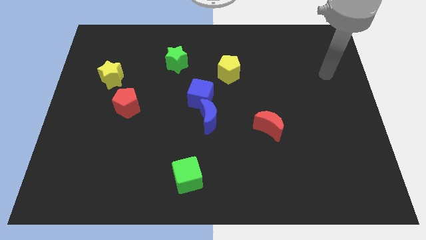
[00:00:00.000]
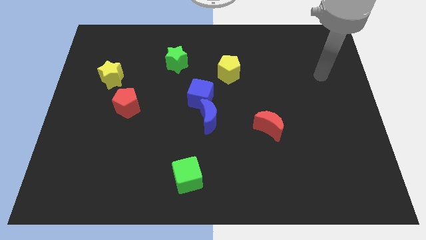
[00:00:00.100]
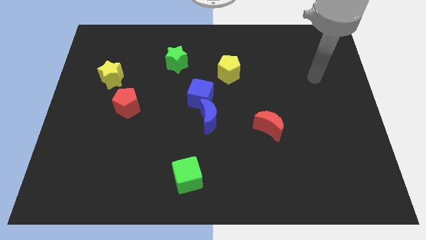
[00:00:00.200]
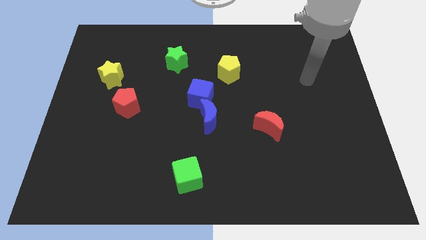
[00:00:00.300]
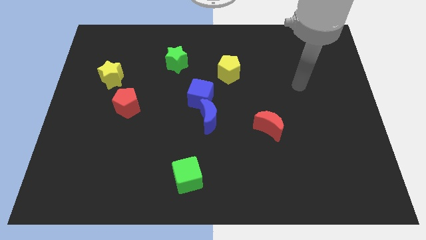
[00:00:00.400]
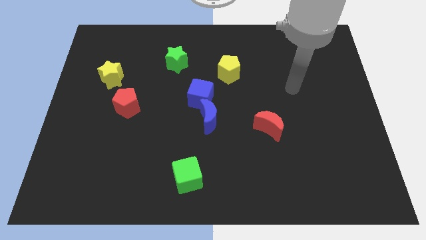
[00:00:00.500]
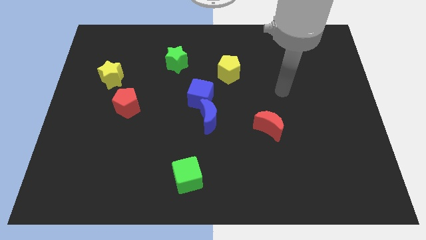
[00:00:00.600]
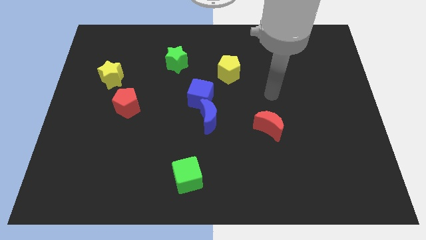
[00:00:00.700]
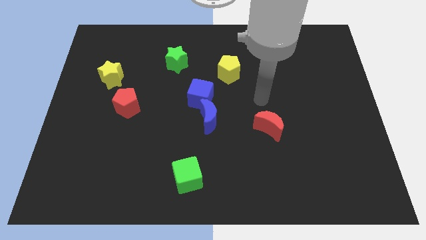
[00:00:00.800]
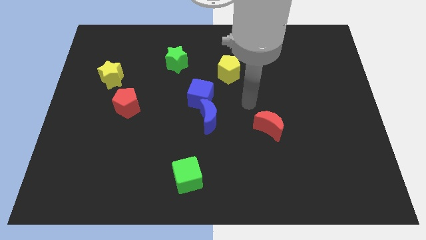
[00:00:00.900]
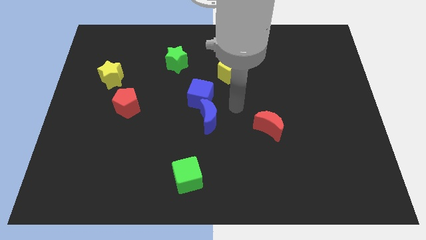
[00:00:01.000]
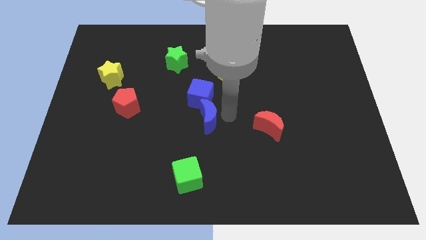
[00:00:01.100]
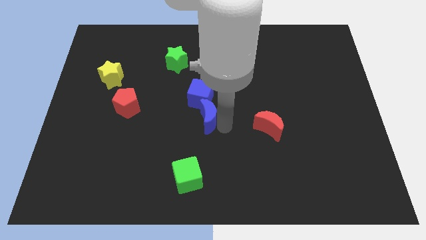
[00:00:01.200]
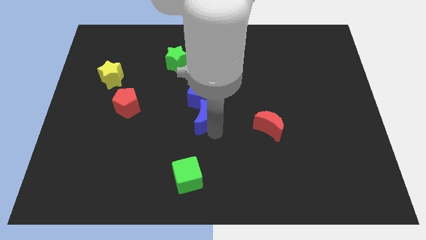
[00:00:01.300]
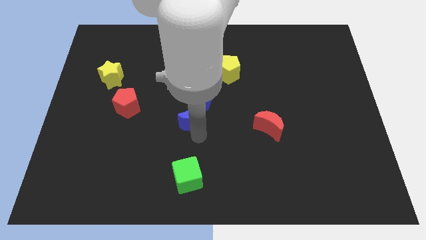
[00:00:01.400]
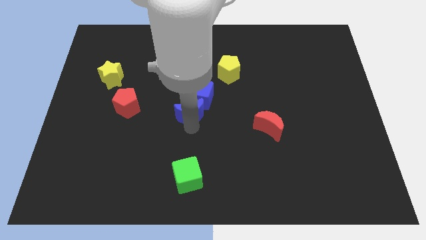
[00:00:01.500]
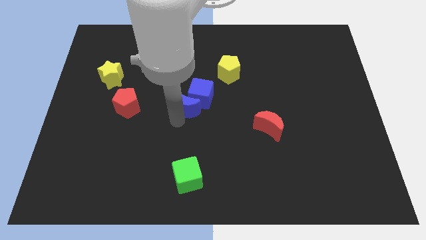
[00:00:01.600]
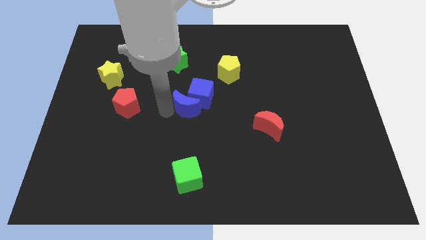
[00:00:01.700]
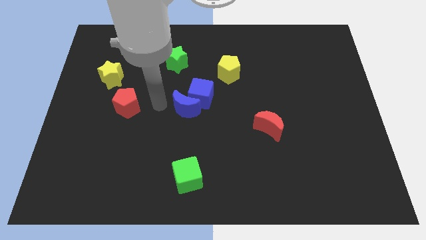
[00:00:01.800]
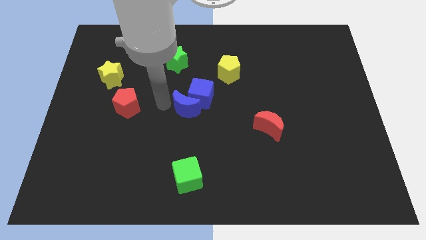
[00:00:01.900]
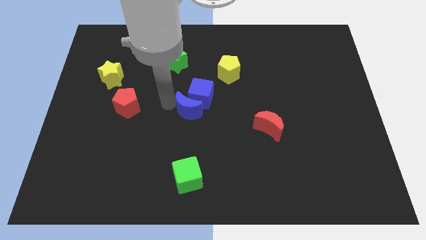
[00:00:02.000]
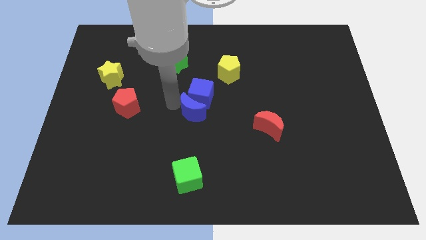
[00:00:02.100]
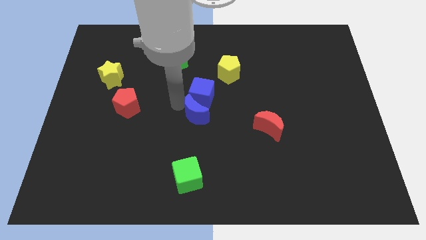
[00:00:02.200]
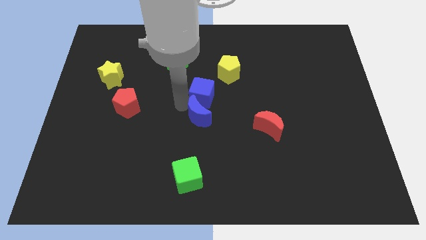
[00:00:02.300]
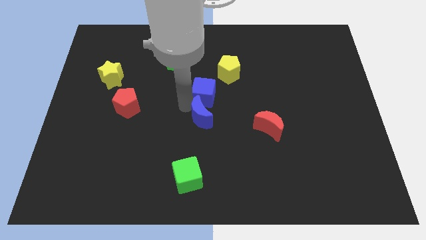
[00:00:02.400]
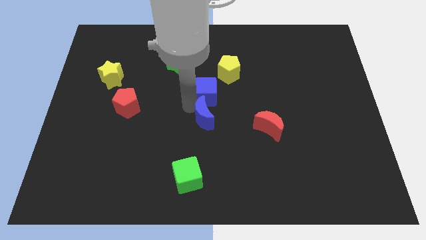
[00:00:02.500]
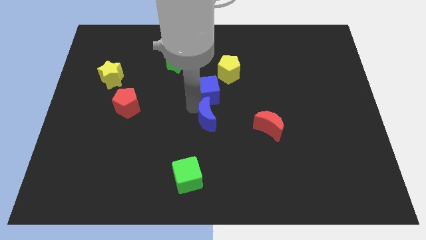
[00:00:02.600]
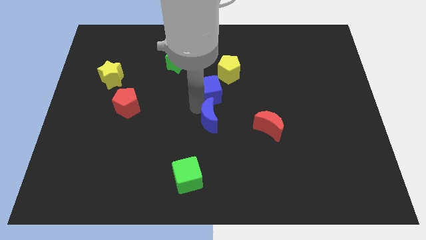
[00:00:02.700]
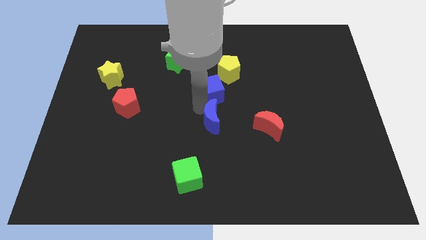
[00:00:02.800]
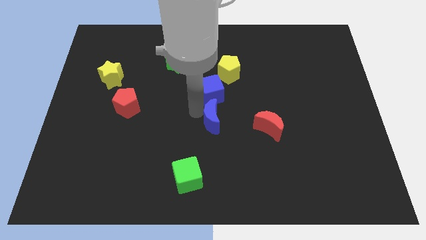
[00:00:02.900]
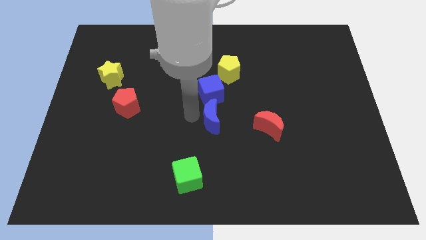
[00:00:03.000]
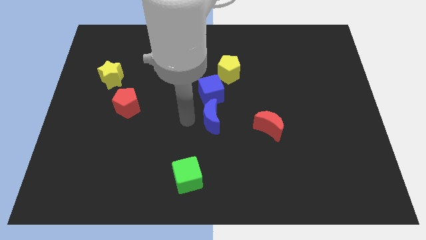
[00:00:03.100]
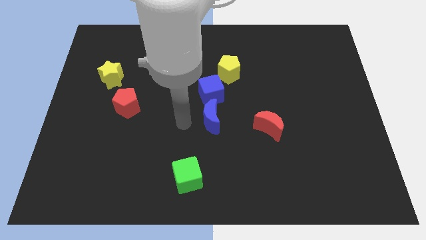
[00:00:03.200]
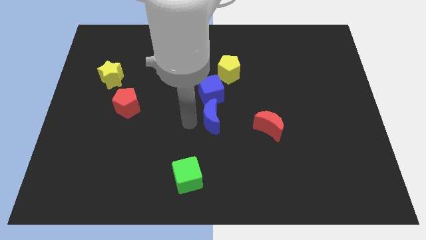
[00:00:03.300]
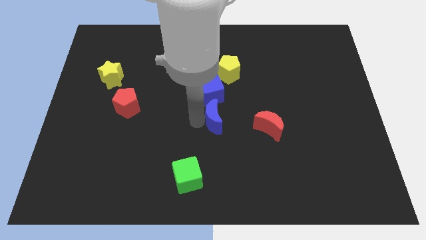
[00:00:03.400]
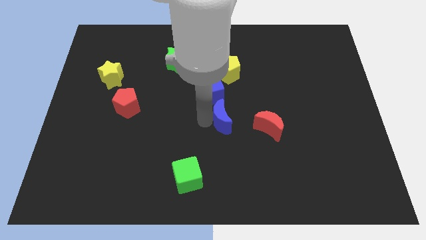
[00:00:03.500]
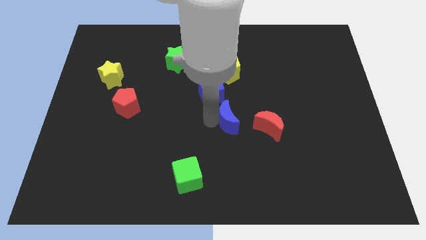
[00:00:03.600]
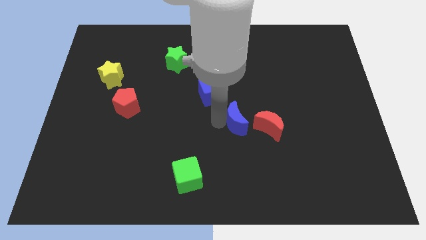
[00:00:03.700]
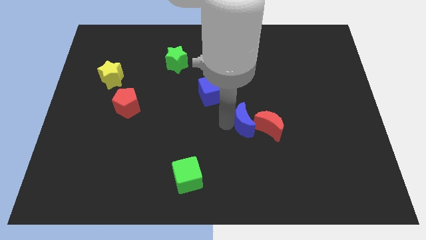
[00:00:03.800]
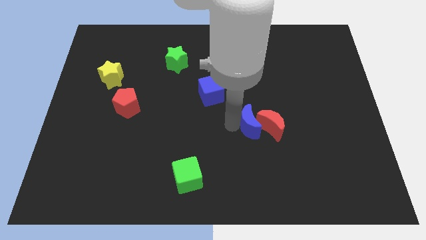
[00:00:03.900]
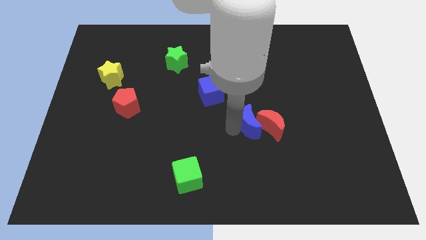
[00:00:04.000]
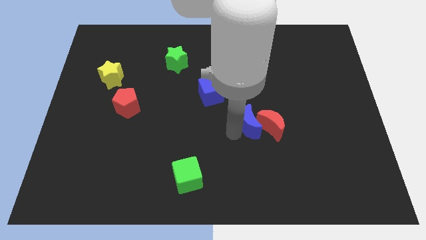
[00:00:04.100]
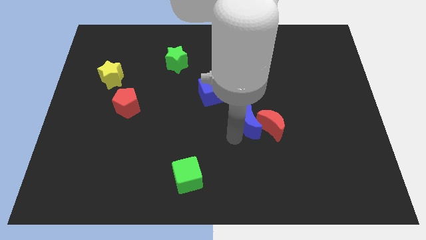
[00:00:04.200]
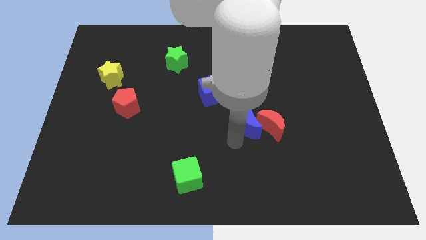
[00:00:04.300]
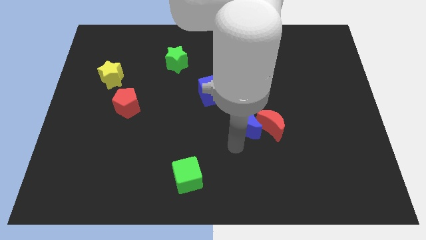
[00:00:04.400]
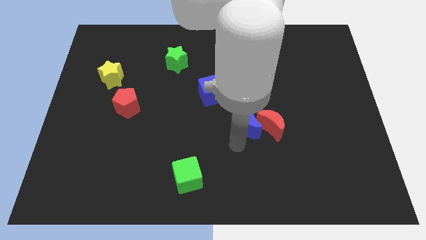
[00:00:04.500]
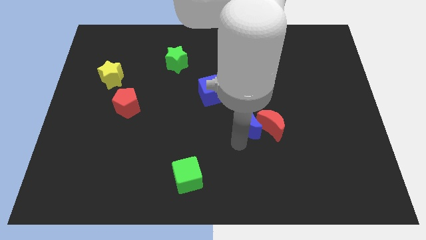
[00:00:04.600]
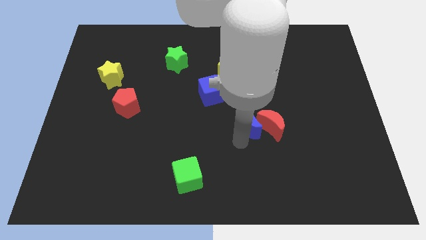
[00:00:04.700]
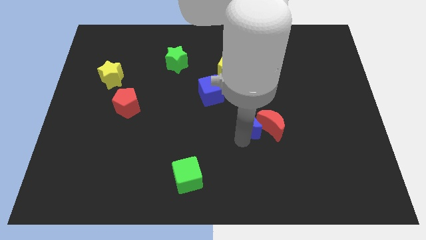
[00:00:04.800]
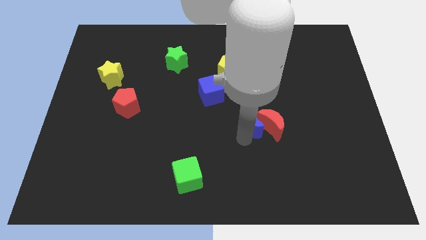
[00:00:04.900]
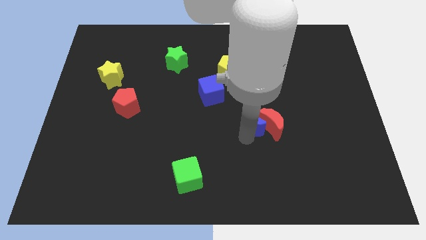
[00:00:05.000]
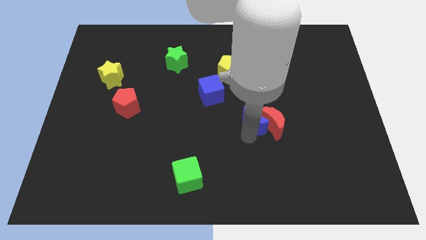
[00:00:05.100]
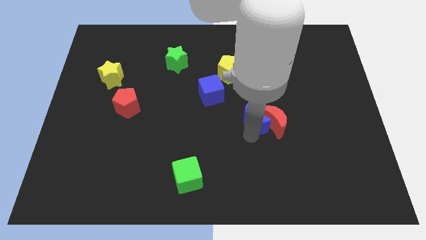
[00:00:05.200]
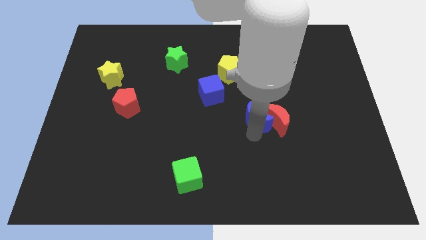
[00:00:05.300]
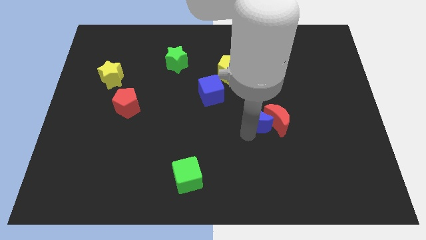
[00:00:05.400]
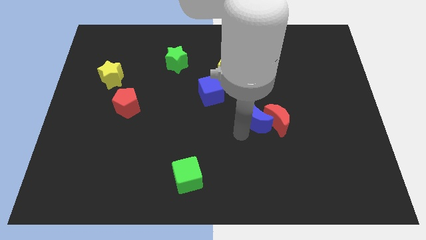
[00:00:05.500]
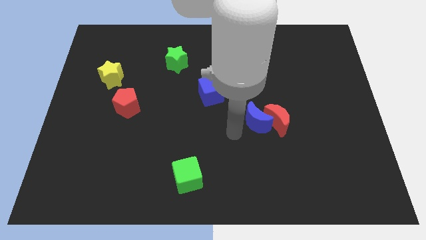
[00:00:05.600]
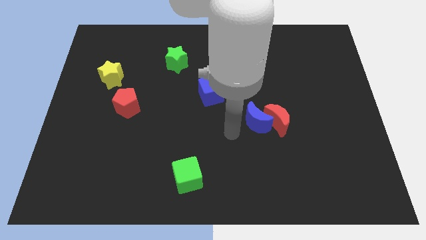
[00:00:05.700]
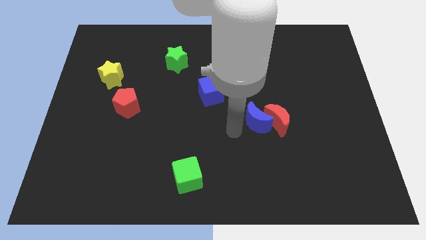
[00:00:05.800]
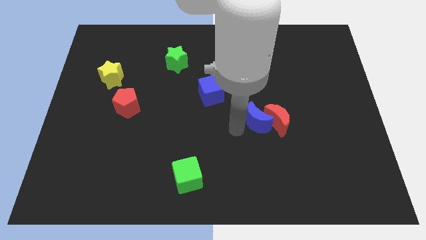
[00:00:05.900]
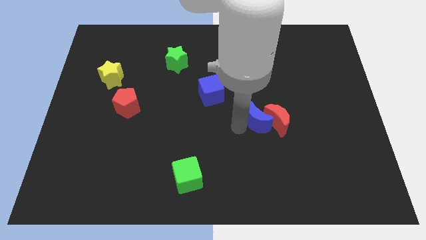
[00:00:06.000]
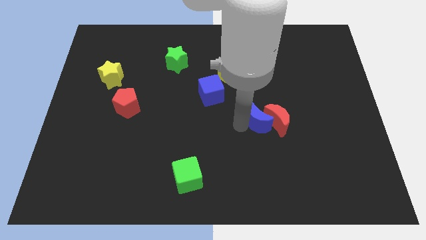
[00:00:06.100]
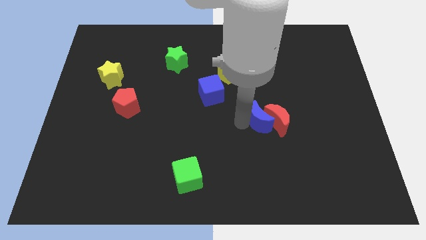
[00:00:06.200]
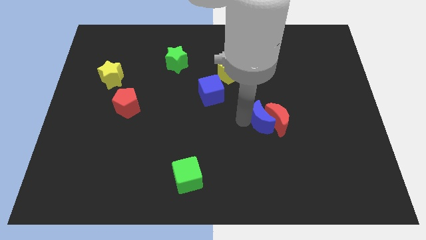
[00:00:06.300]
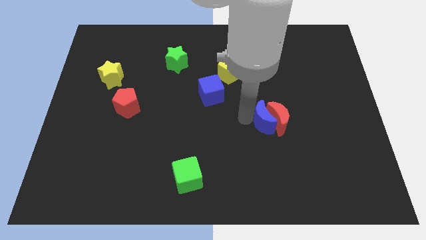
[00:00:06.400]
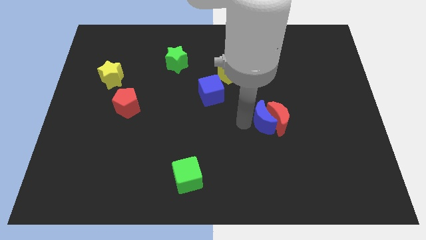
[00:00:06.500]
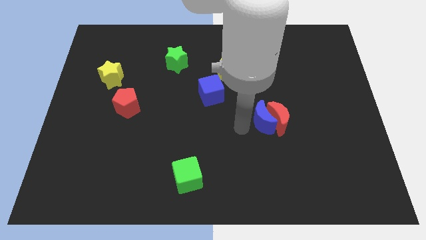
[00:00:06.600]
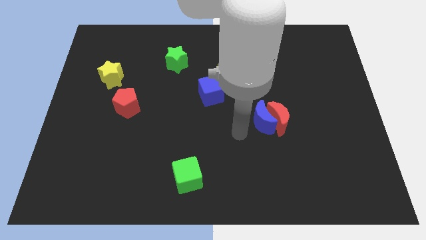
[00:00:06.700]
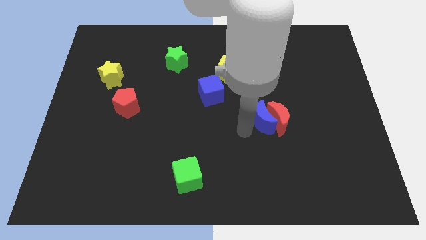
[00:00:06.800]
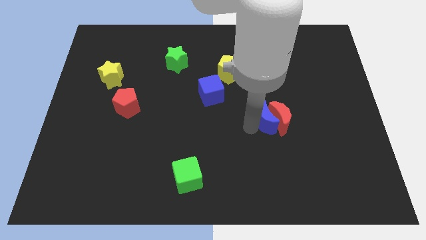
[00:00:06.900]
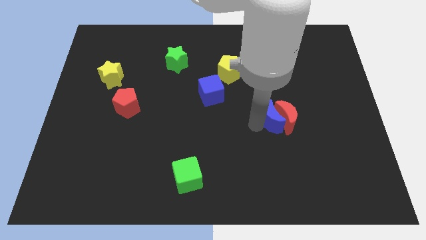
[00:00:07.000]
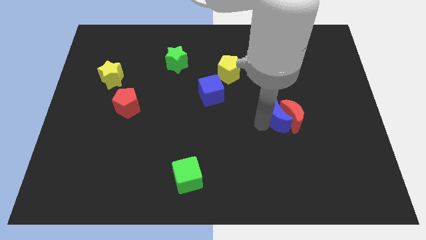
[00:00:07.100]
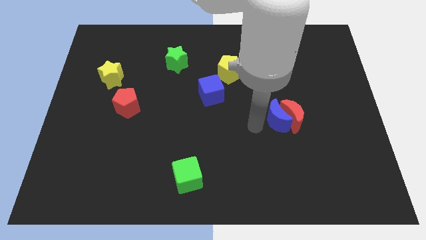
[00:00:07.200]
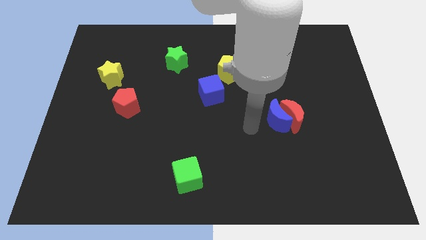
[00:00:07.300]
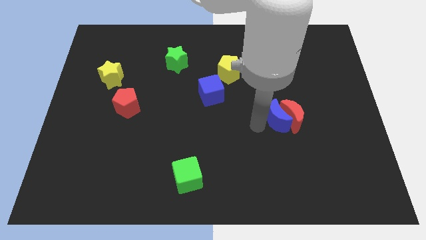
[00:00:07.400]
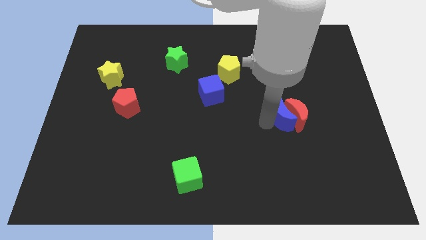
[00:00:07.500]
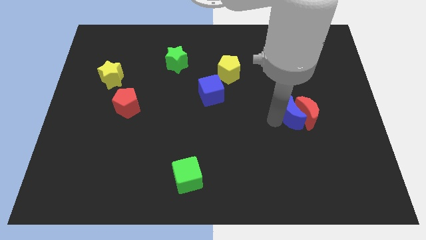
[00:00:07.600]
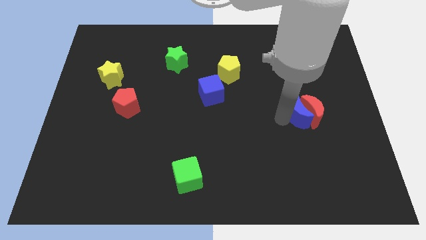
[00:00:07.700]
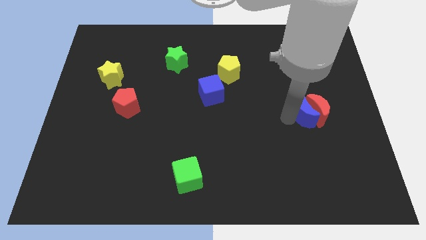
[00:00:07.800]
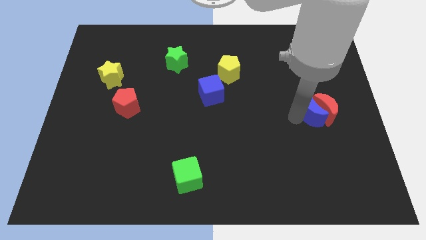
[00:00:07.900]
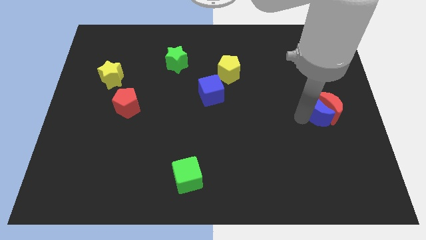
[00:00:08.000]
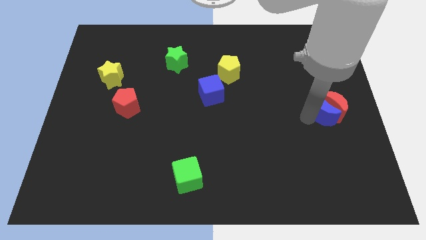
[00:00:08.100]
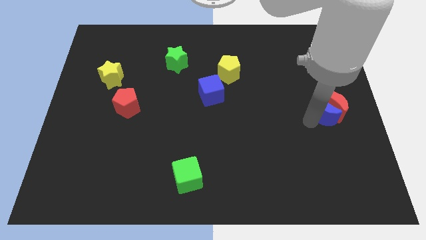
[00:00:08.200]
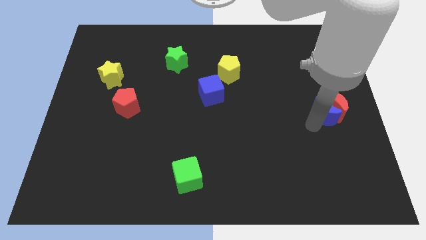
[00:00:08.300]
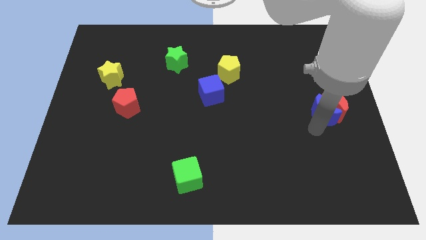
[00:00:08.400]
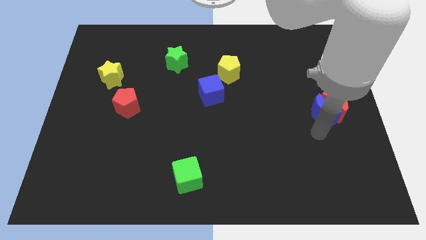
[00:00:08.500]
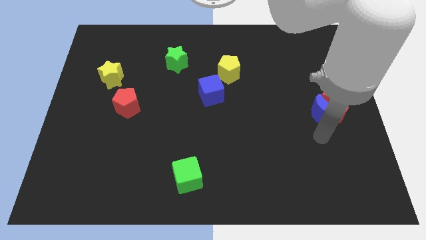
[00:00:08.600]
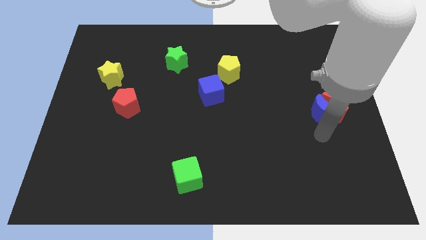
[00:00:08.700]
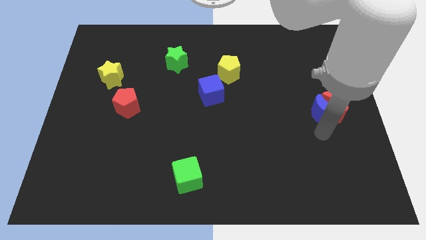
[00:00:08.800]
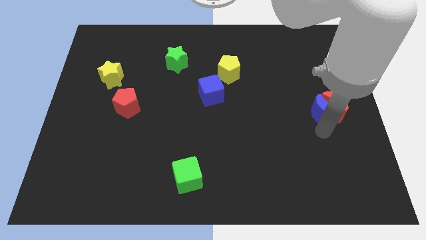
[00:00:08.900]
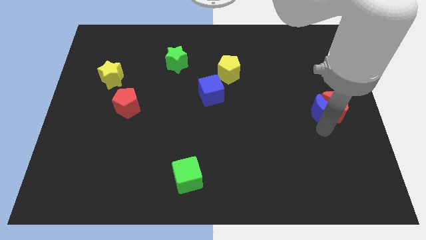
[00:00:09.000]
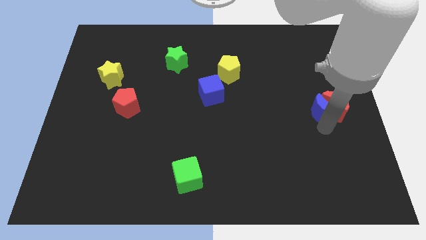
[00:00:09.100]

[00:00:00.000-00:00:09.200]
slide the blue moon to the center right
